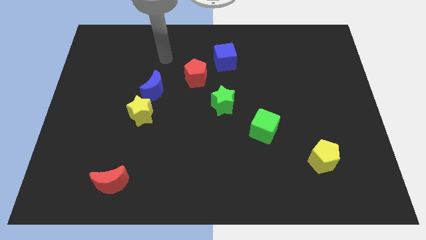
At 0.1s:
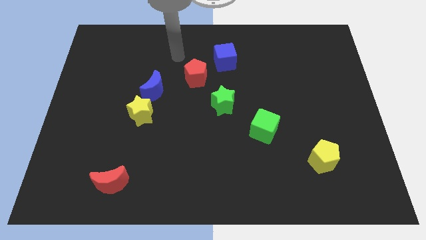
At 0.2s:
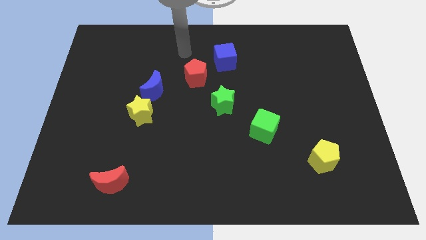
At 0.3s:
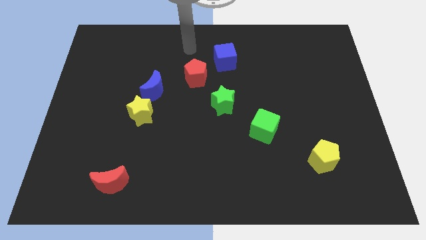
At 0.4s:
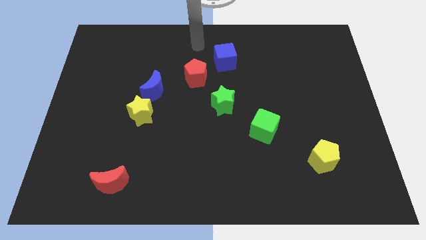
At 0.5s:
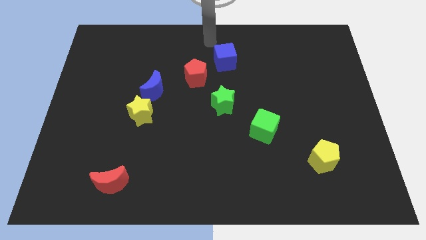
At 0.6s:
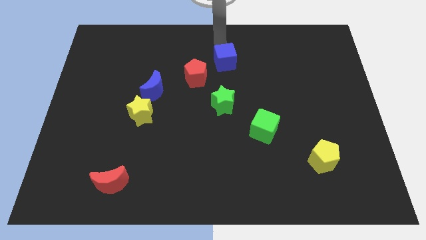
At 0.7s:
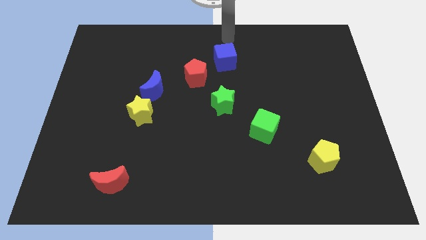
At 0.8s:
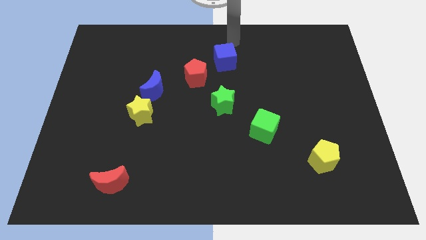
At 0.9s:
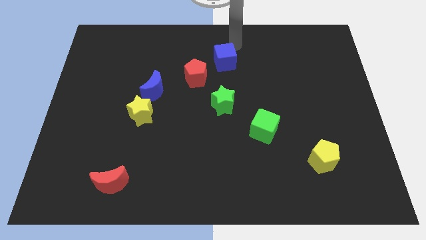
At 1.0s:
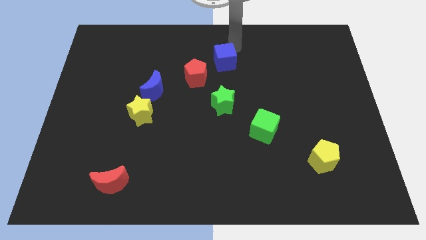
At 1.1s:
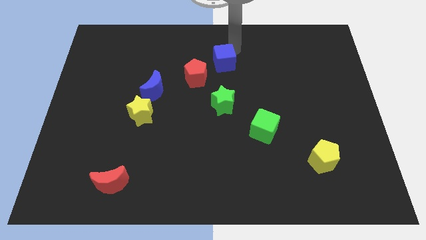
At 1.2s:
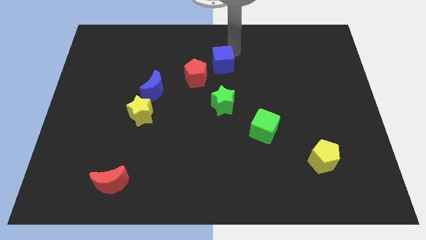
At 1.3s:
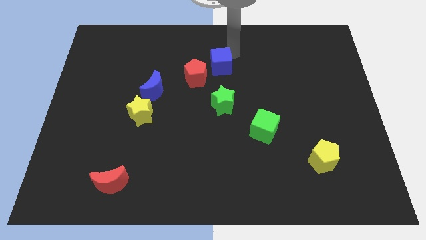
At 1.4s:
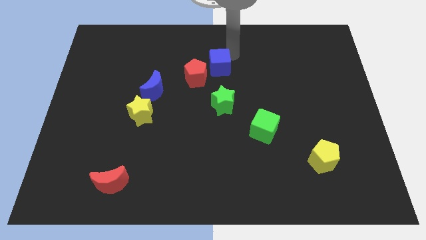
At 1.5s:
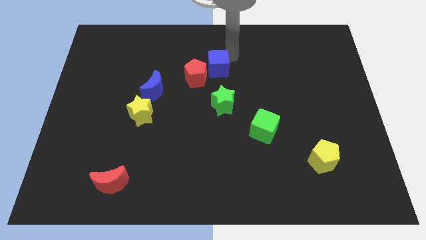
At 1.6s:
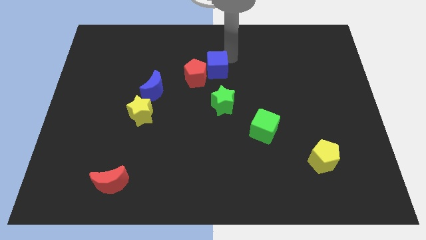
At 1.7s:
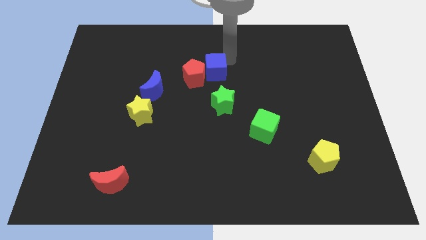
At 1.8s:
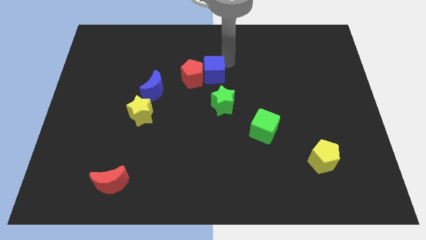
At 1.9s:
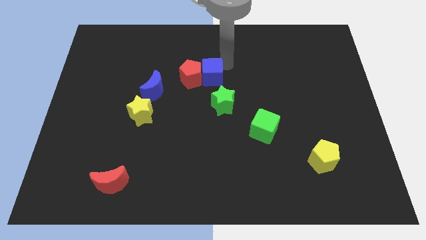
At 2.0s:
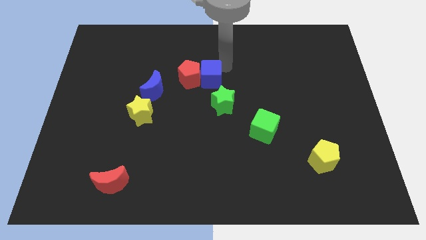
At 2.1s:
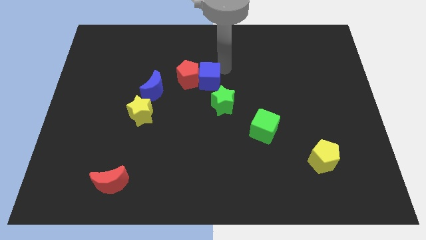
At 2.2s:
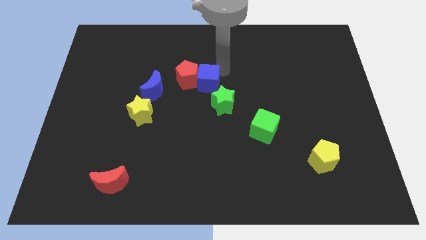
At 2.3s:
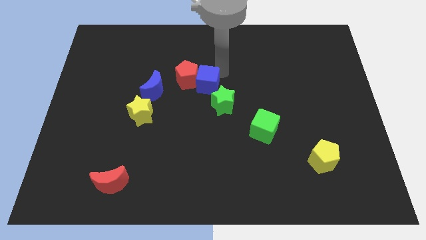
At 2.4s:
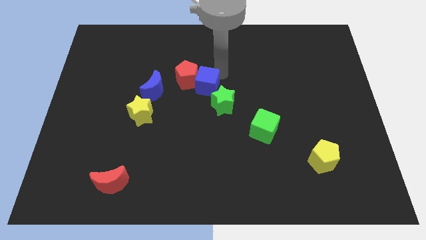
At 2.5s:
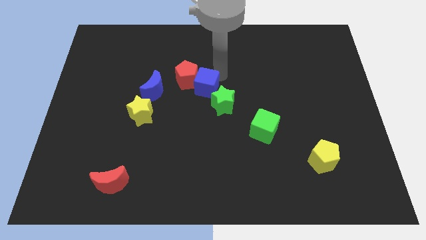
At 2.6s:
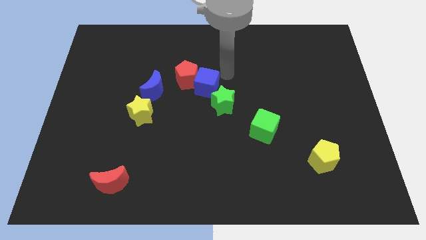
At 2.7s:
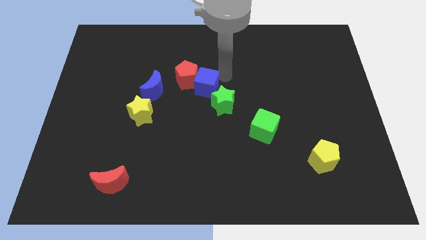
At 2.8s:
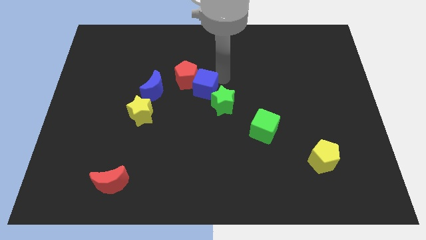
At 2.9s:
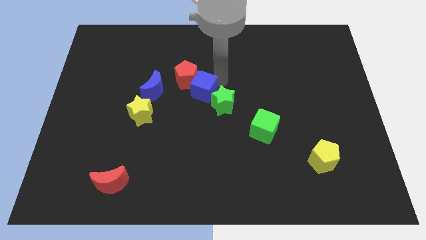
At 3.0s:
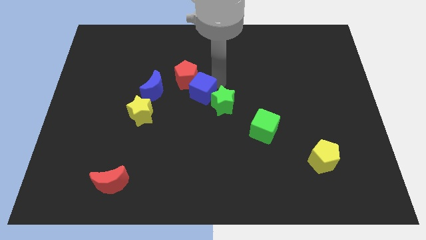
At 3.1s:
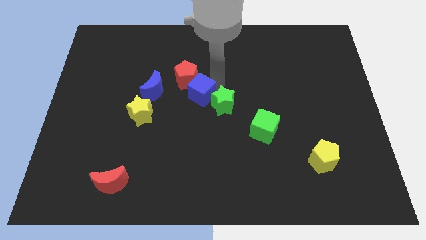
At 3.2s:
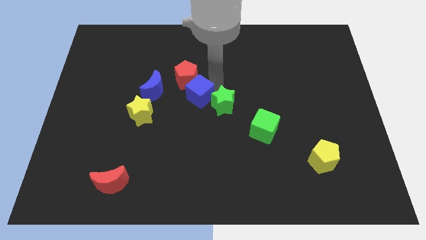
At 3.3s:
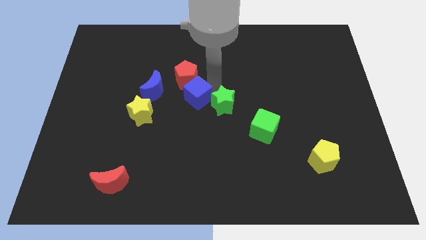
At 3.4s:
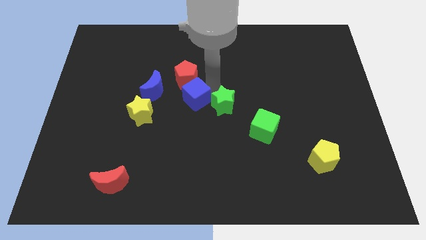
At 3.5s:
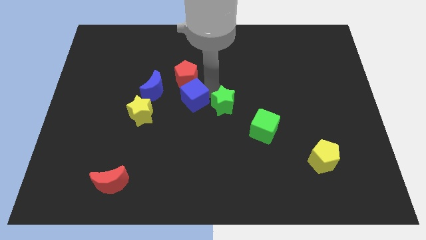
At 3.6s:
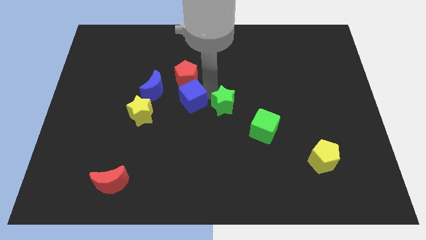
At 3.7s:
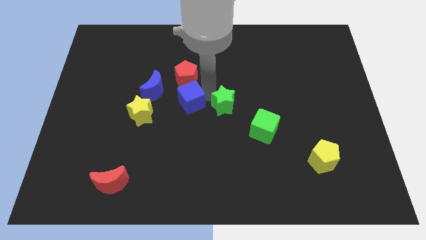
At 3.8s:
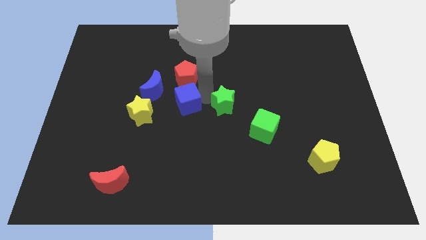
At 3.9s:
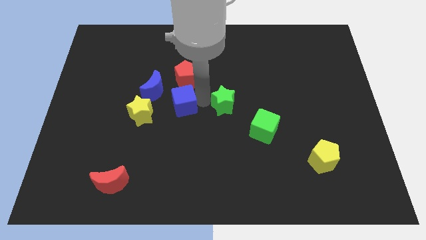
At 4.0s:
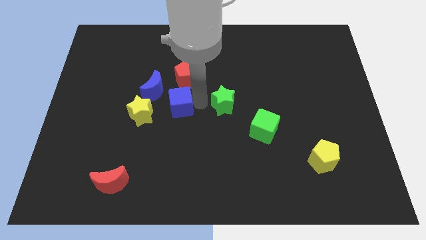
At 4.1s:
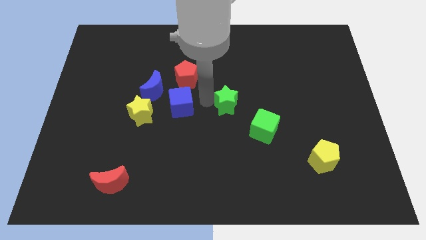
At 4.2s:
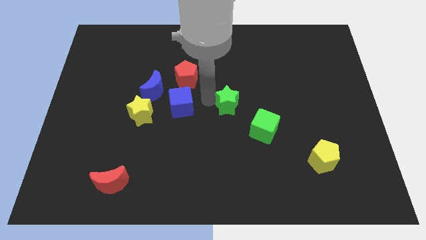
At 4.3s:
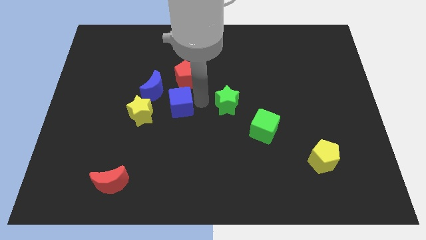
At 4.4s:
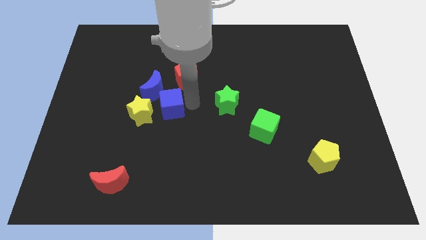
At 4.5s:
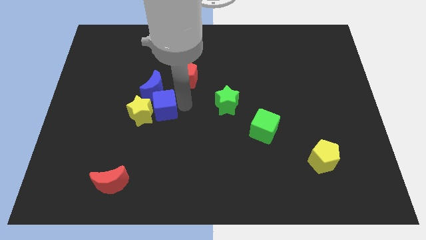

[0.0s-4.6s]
move the blue cube to the yellow star

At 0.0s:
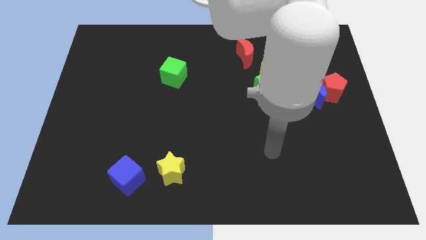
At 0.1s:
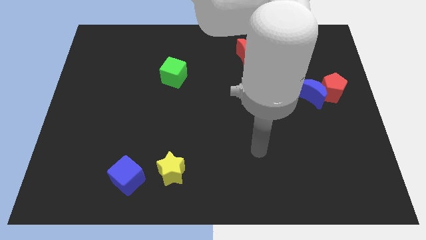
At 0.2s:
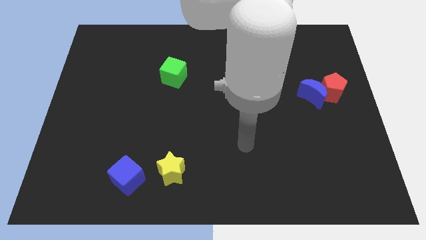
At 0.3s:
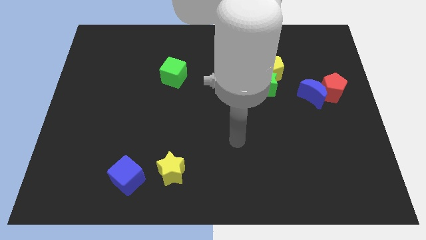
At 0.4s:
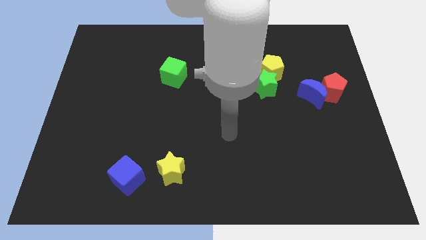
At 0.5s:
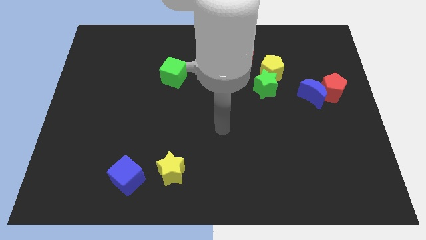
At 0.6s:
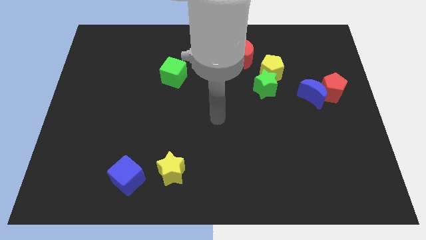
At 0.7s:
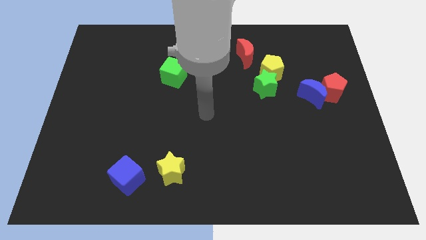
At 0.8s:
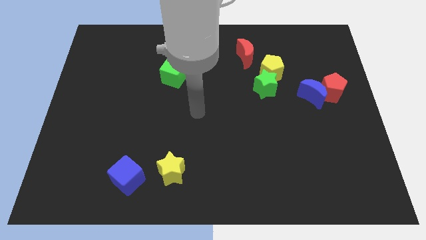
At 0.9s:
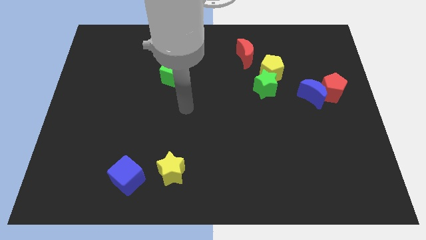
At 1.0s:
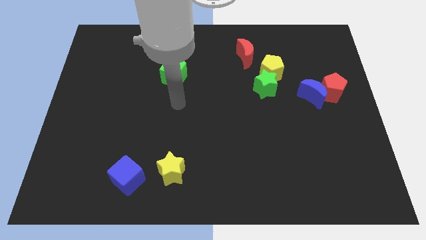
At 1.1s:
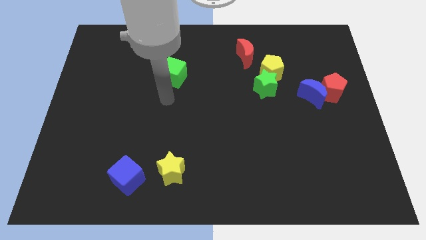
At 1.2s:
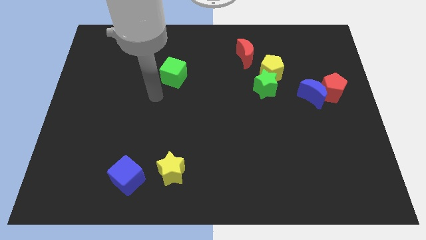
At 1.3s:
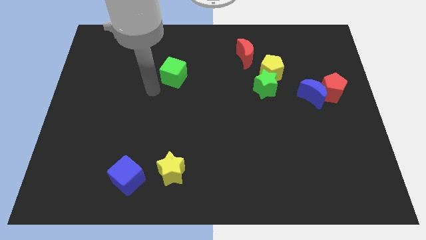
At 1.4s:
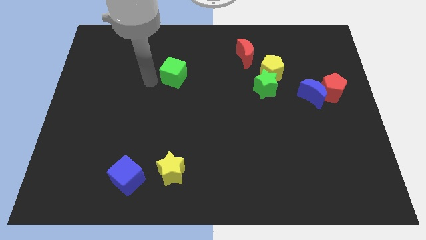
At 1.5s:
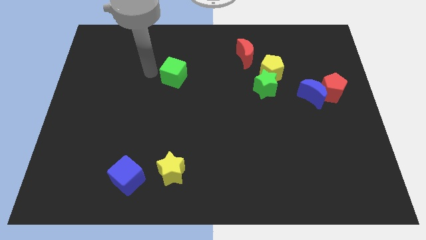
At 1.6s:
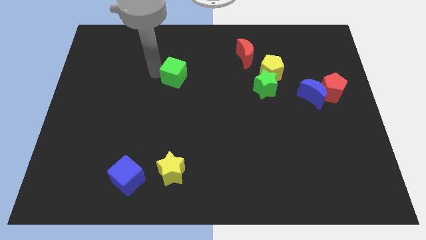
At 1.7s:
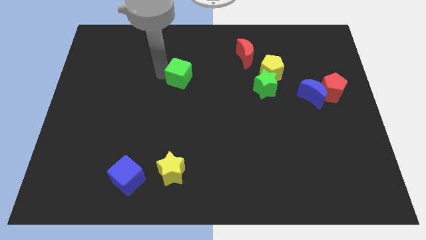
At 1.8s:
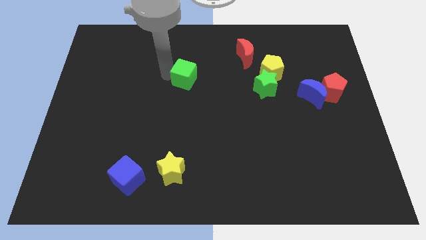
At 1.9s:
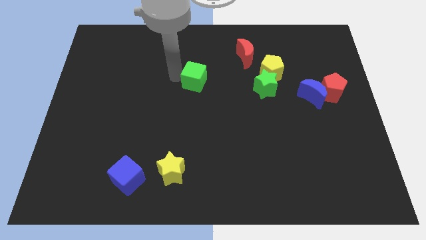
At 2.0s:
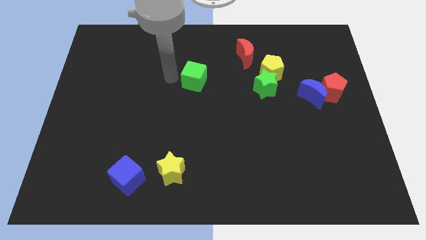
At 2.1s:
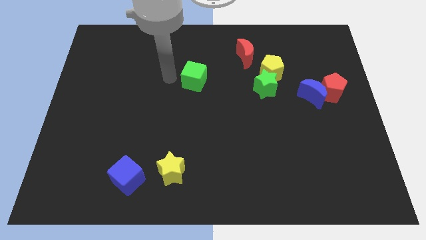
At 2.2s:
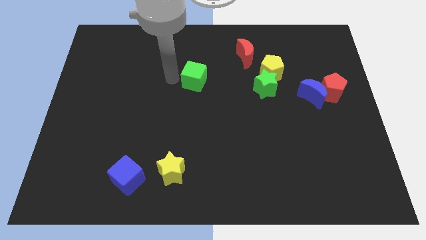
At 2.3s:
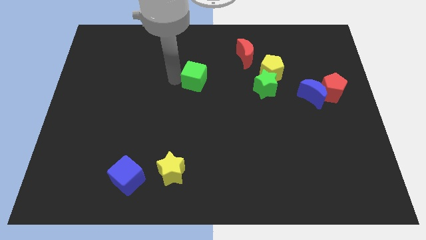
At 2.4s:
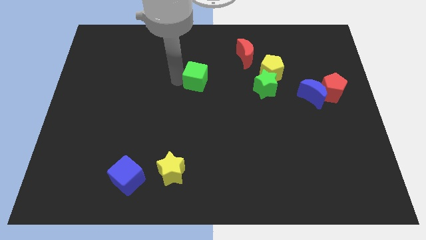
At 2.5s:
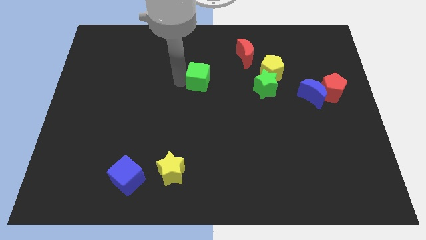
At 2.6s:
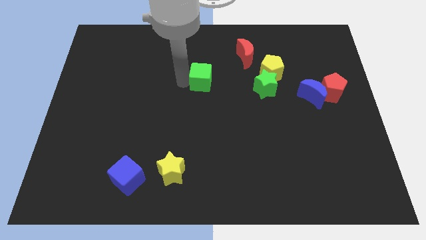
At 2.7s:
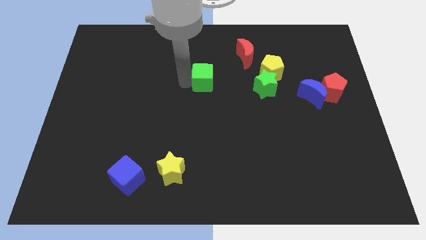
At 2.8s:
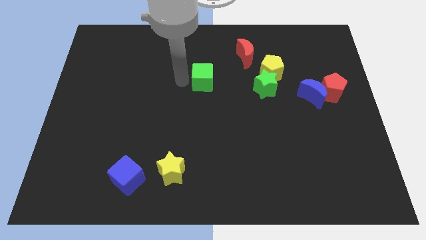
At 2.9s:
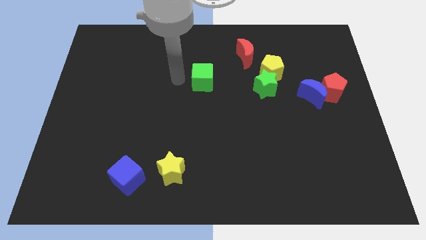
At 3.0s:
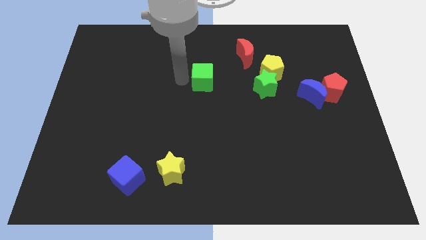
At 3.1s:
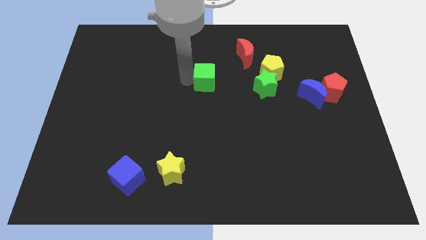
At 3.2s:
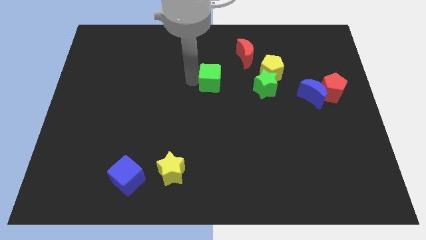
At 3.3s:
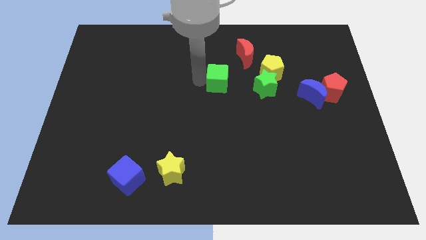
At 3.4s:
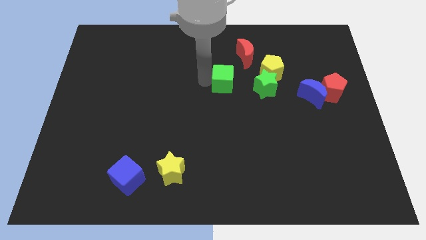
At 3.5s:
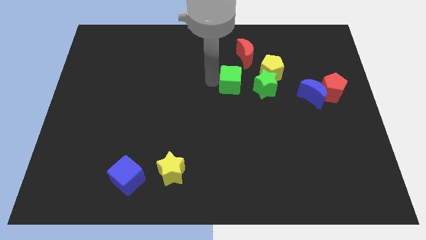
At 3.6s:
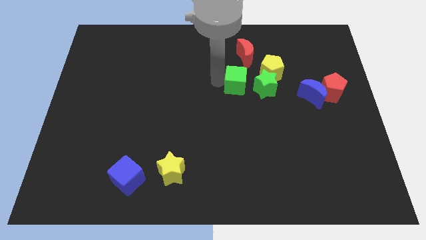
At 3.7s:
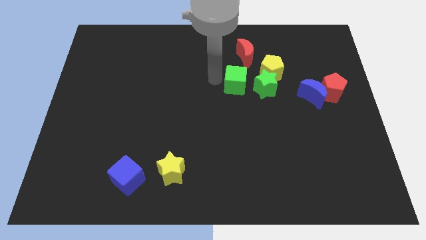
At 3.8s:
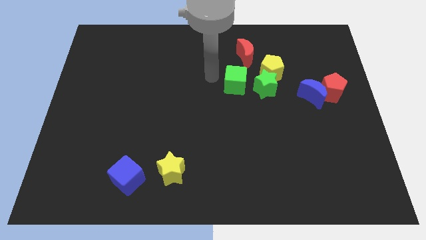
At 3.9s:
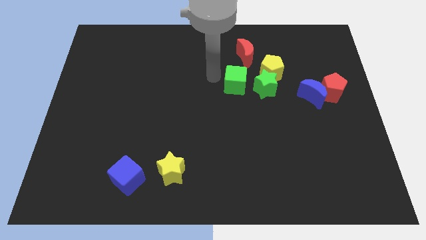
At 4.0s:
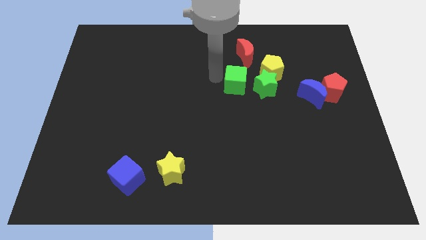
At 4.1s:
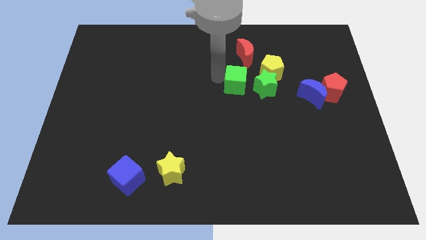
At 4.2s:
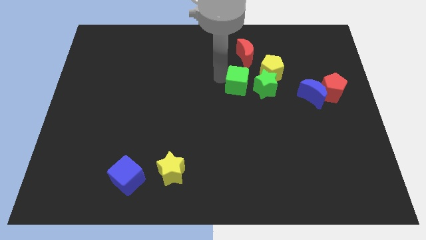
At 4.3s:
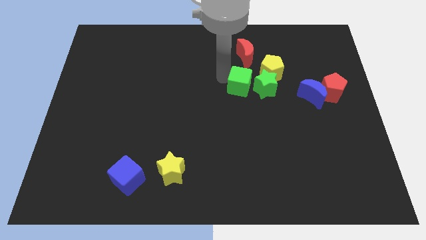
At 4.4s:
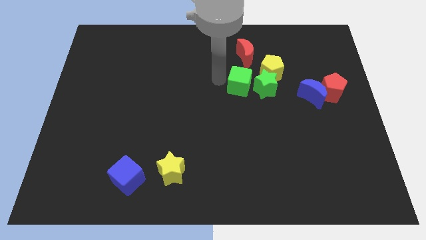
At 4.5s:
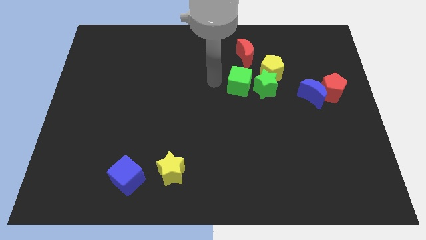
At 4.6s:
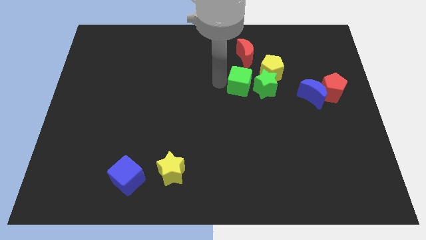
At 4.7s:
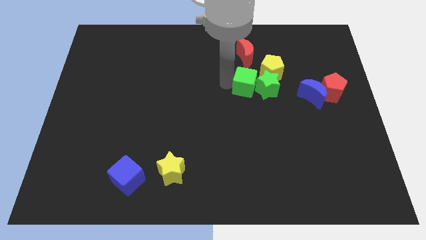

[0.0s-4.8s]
push the green cube close to the green star
